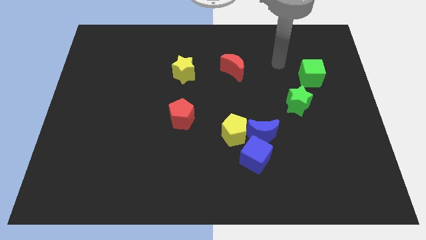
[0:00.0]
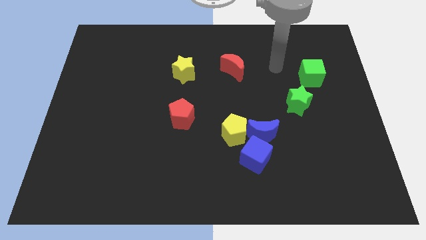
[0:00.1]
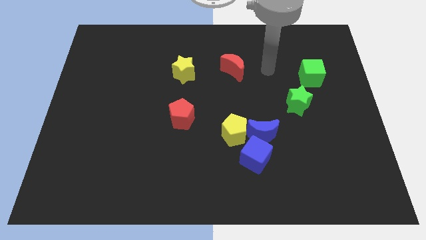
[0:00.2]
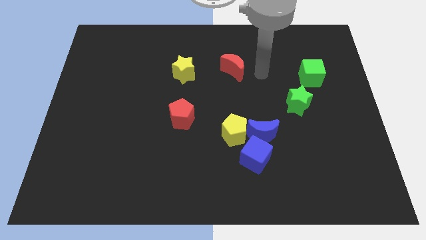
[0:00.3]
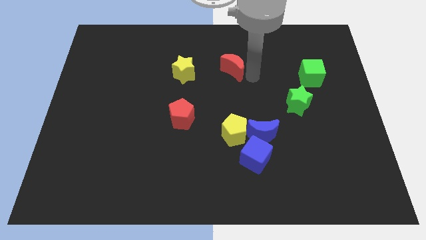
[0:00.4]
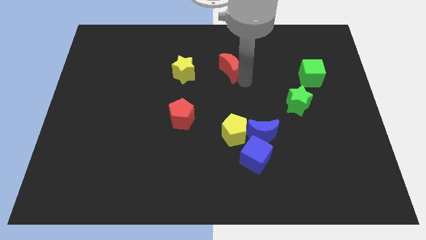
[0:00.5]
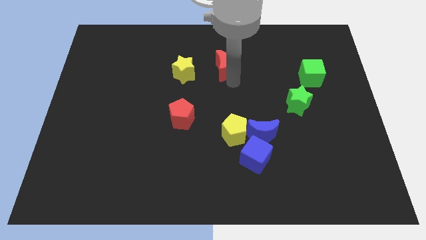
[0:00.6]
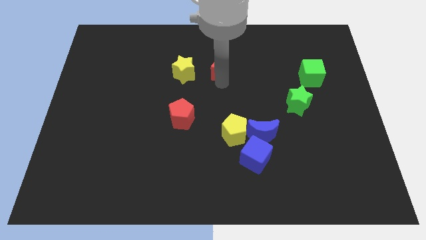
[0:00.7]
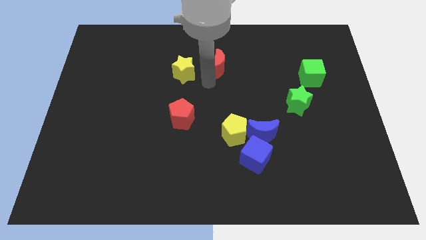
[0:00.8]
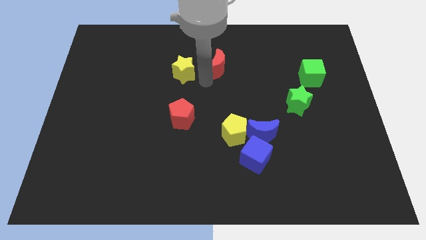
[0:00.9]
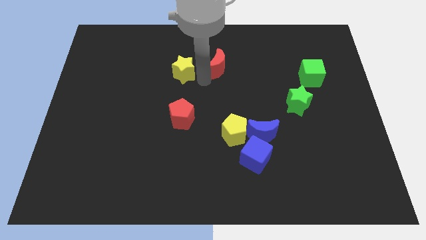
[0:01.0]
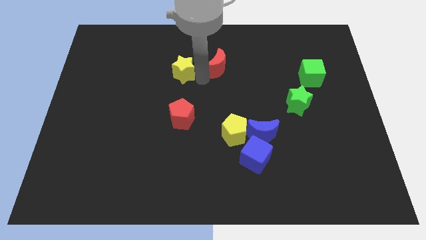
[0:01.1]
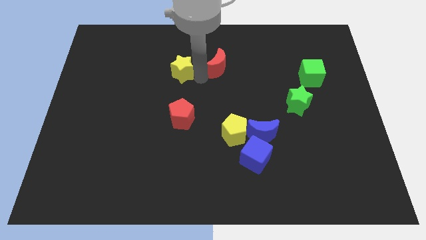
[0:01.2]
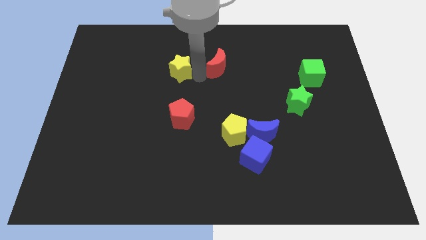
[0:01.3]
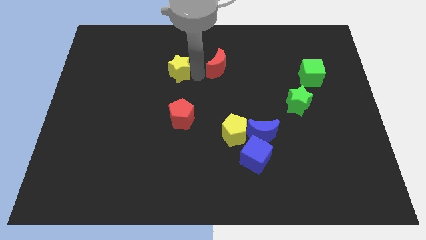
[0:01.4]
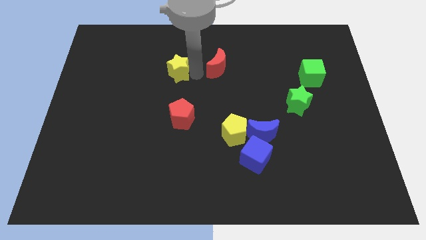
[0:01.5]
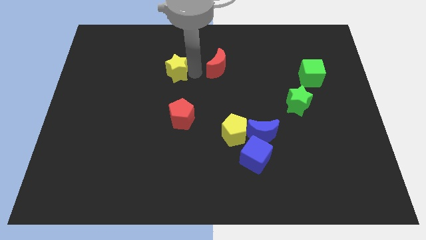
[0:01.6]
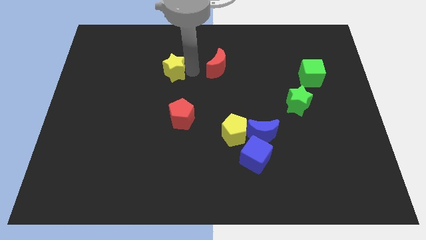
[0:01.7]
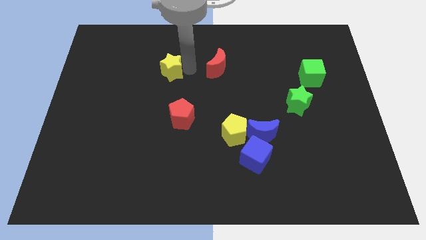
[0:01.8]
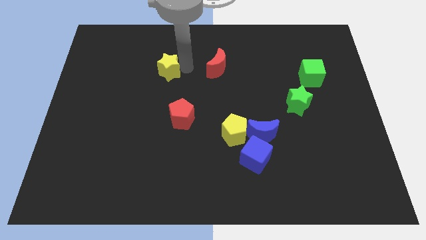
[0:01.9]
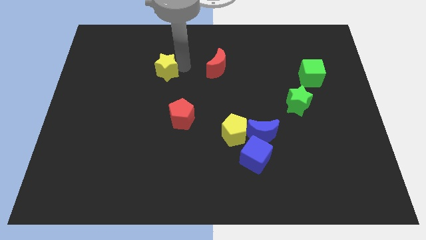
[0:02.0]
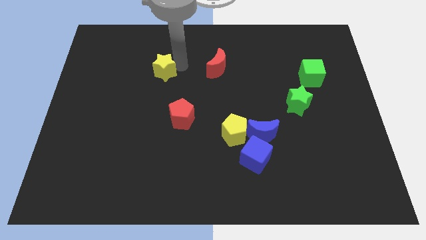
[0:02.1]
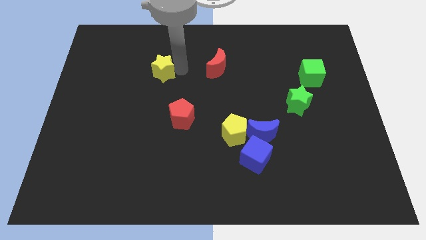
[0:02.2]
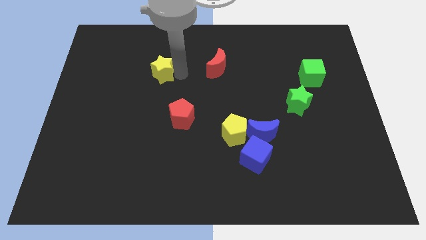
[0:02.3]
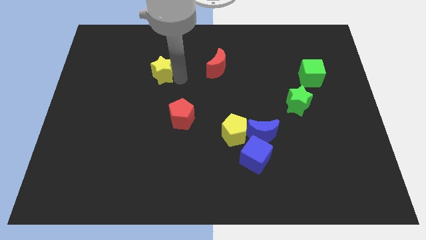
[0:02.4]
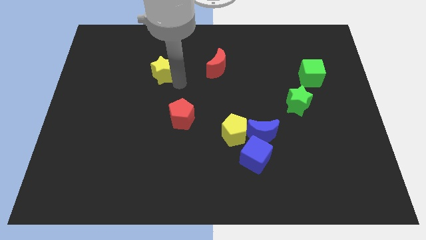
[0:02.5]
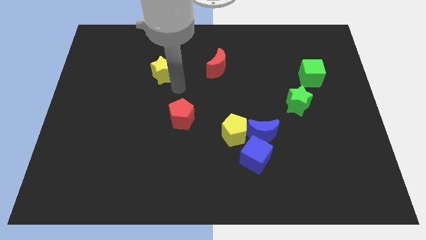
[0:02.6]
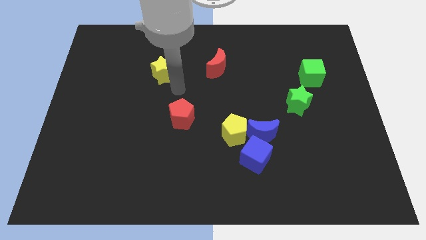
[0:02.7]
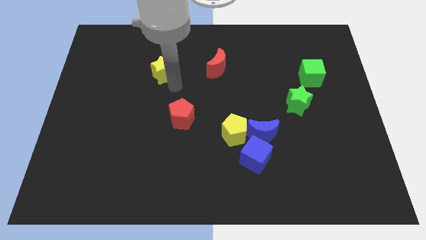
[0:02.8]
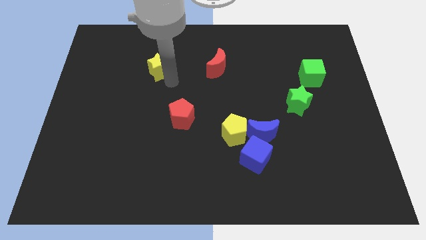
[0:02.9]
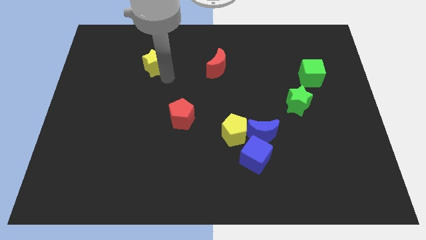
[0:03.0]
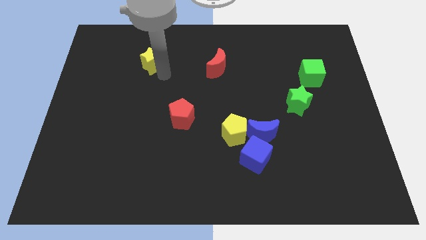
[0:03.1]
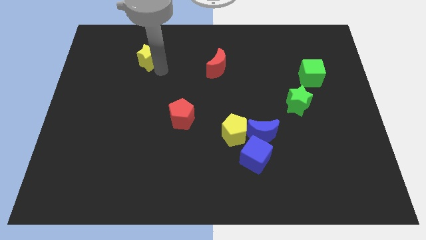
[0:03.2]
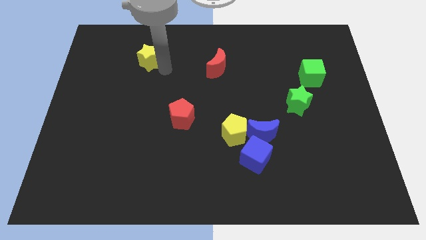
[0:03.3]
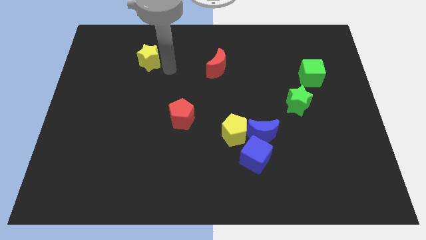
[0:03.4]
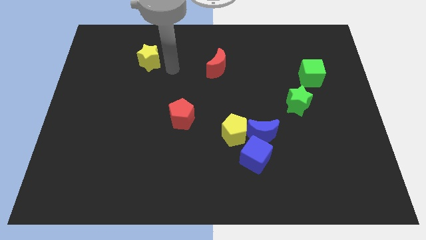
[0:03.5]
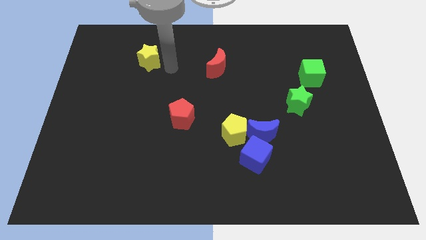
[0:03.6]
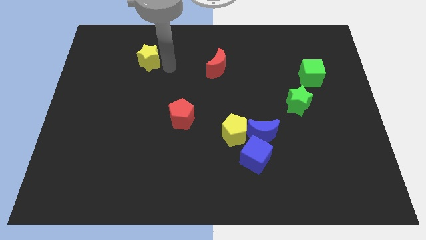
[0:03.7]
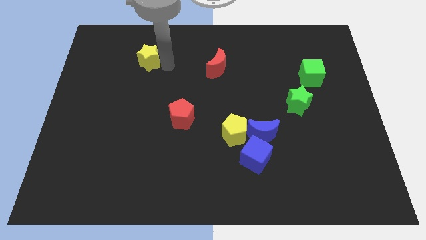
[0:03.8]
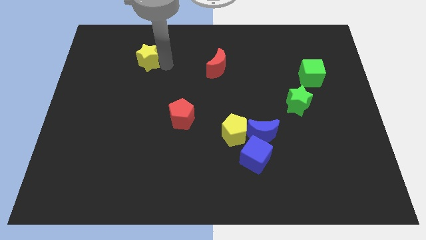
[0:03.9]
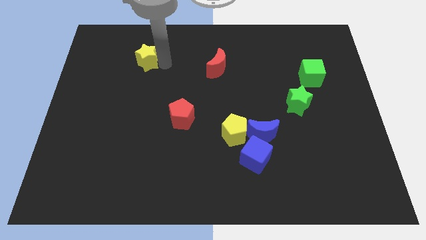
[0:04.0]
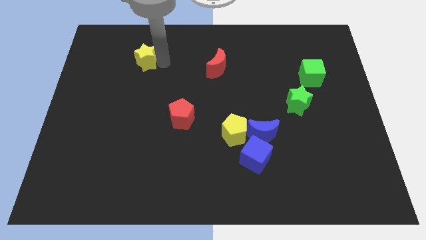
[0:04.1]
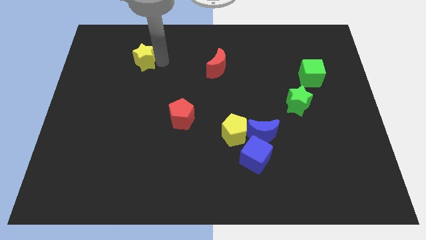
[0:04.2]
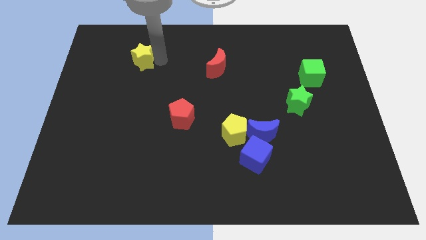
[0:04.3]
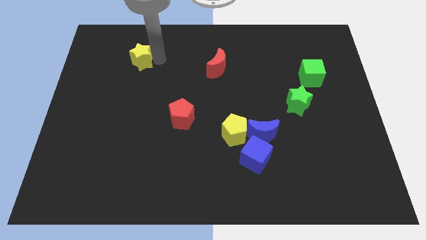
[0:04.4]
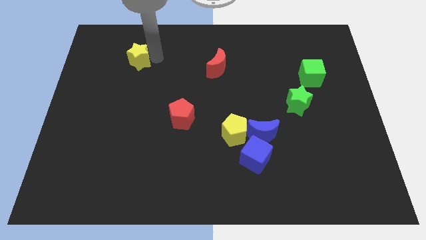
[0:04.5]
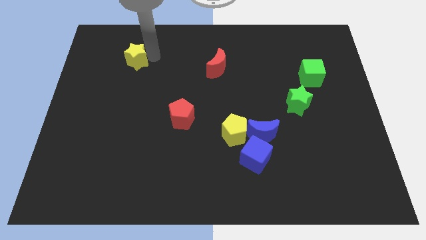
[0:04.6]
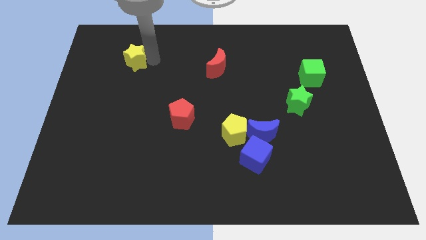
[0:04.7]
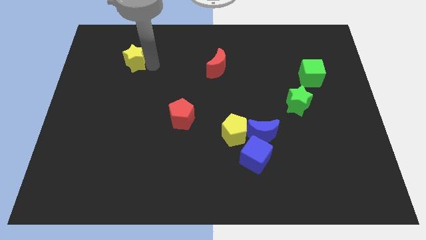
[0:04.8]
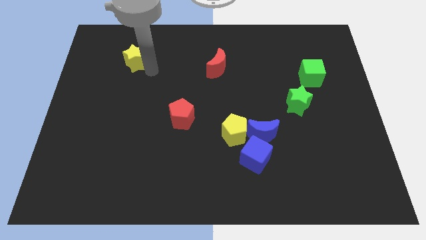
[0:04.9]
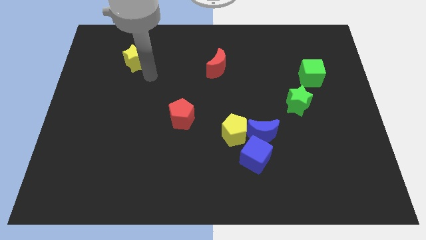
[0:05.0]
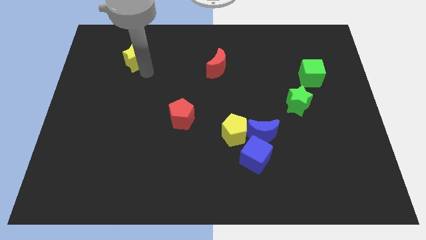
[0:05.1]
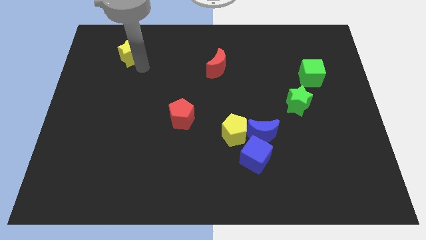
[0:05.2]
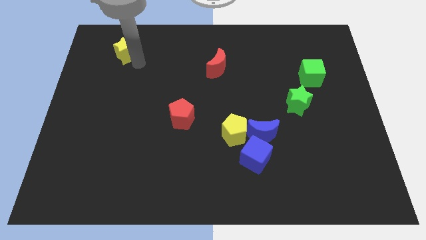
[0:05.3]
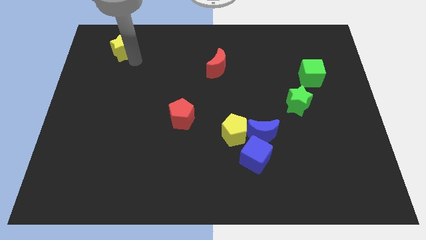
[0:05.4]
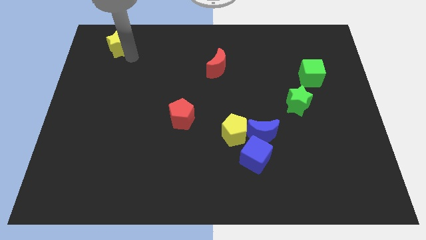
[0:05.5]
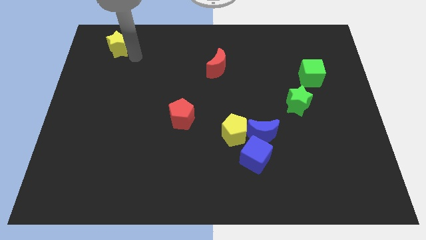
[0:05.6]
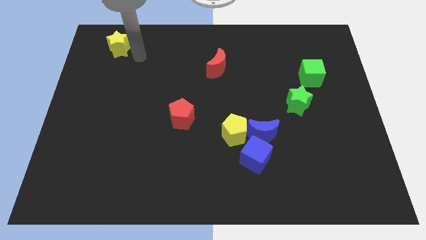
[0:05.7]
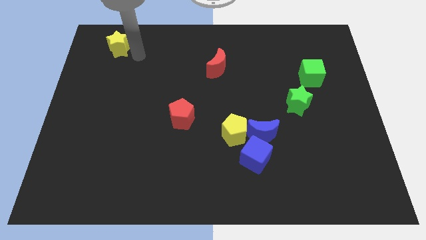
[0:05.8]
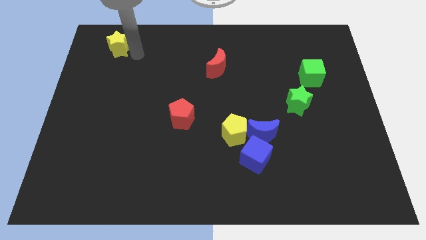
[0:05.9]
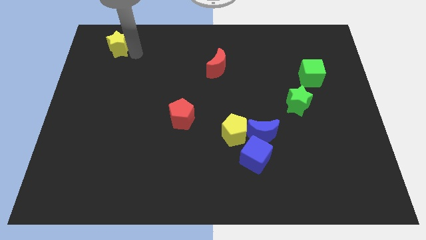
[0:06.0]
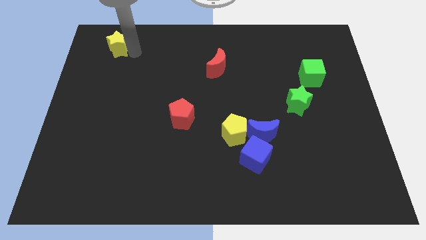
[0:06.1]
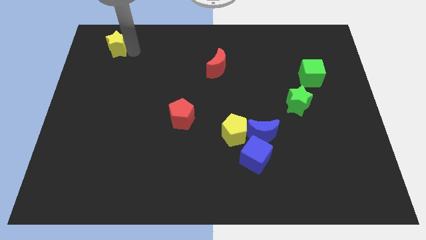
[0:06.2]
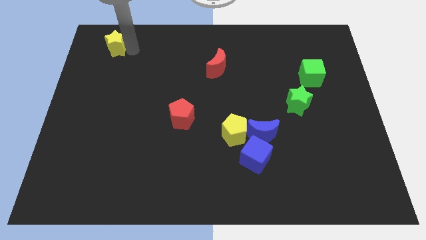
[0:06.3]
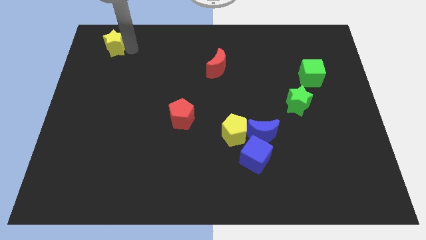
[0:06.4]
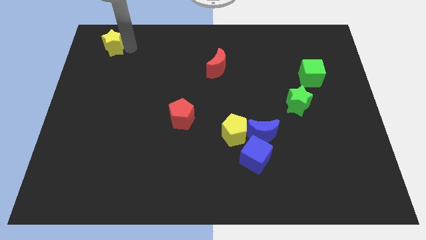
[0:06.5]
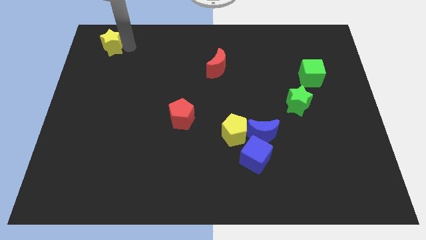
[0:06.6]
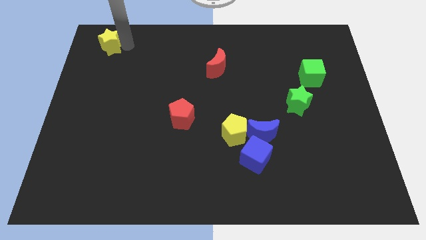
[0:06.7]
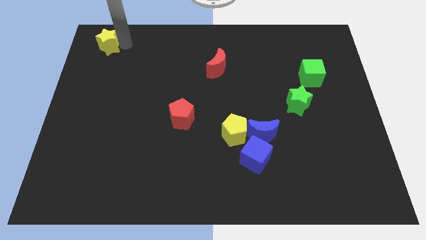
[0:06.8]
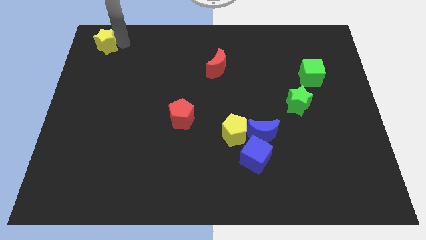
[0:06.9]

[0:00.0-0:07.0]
put the yellow star to the top left corner

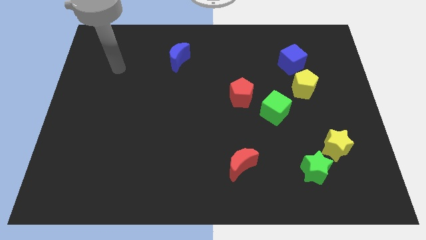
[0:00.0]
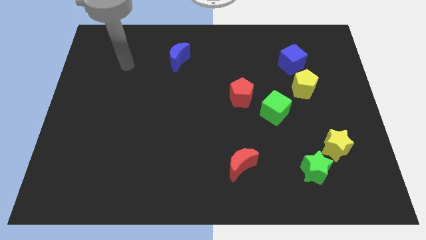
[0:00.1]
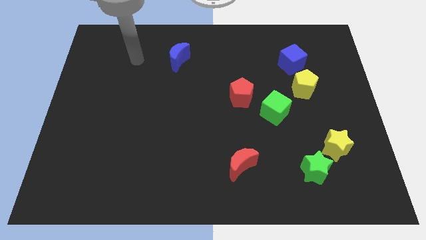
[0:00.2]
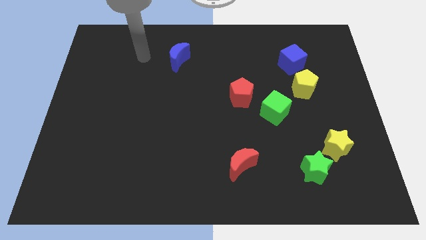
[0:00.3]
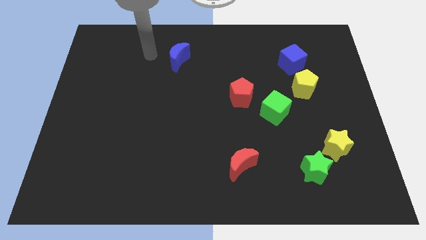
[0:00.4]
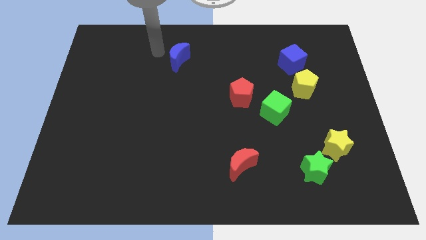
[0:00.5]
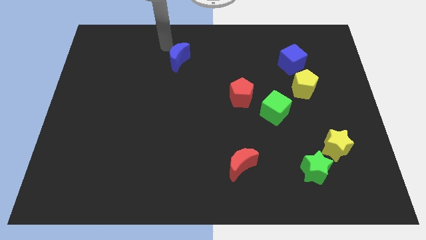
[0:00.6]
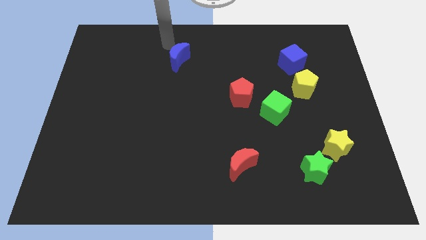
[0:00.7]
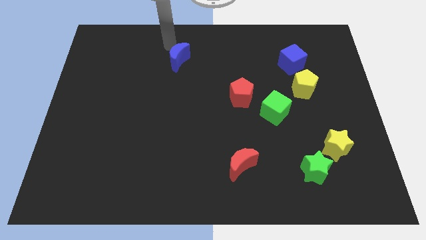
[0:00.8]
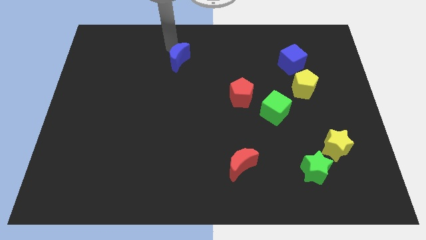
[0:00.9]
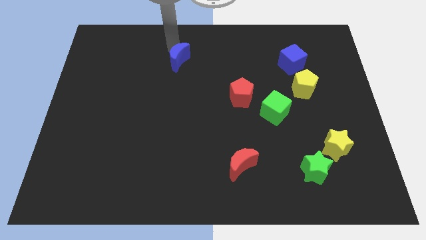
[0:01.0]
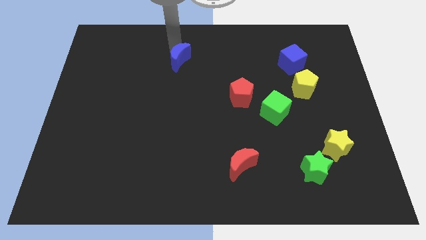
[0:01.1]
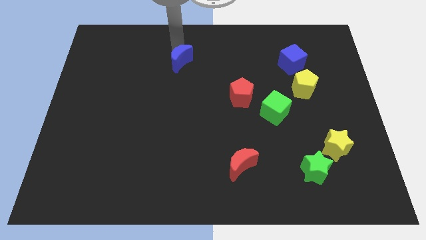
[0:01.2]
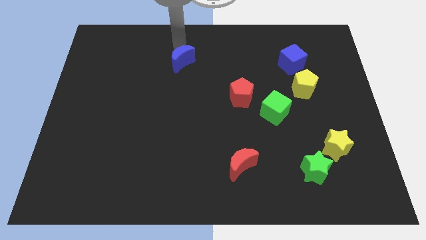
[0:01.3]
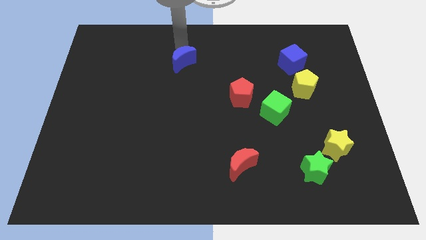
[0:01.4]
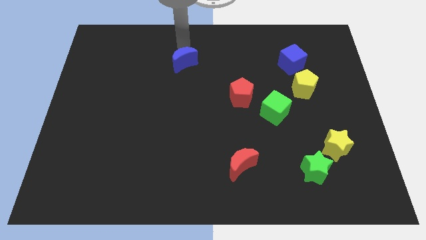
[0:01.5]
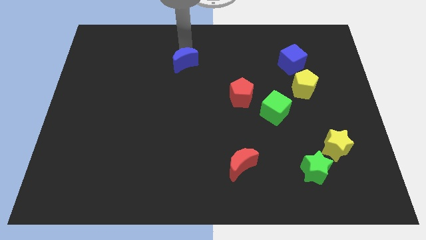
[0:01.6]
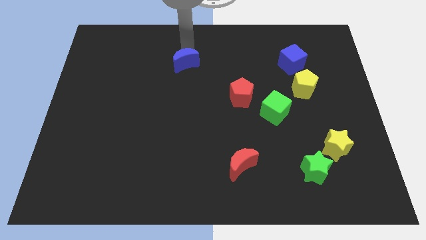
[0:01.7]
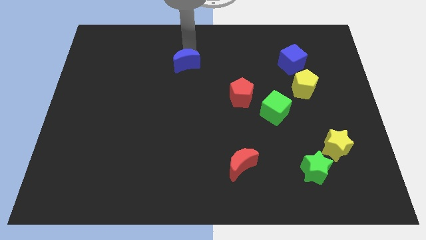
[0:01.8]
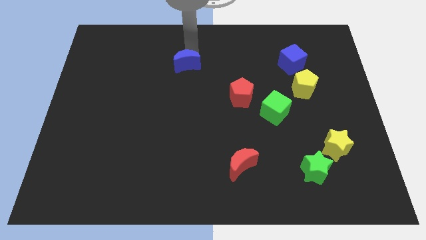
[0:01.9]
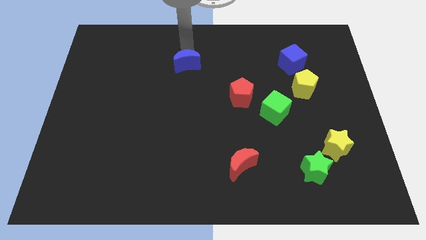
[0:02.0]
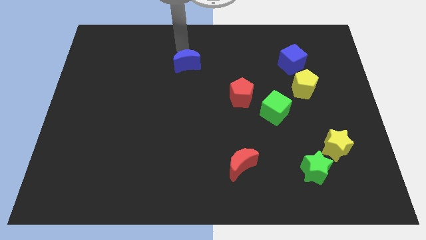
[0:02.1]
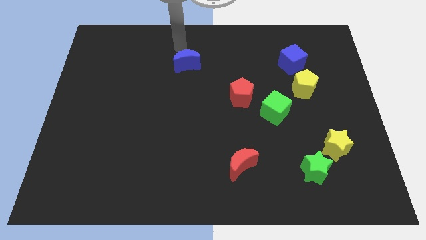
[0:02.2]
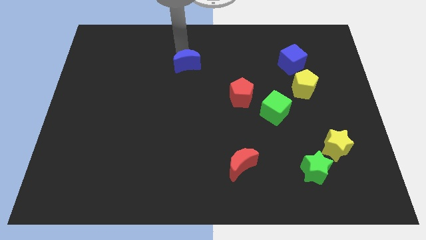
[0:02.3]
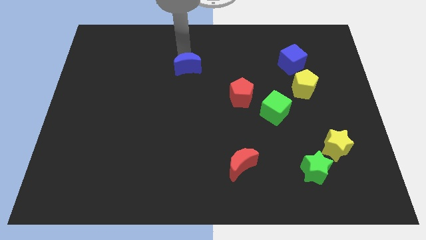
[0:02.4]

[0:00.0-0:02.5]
push the blue moon to the middle of the board
